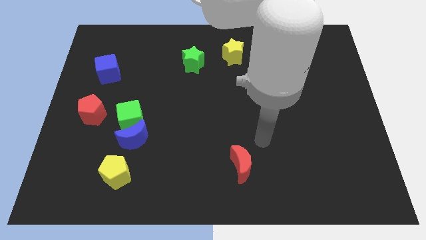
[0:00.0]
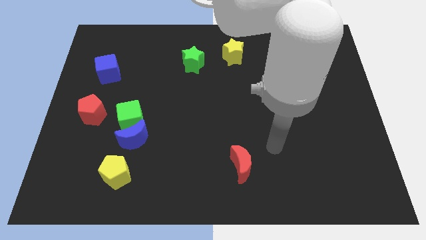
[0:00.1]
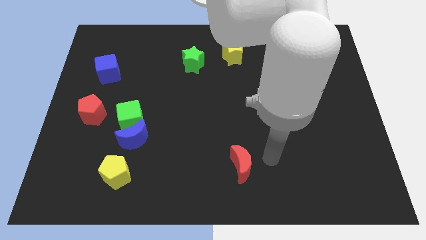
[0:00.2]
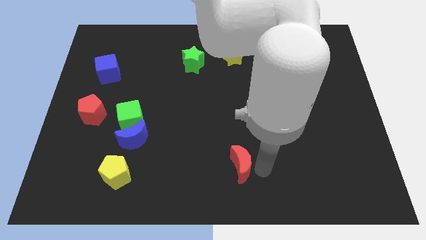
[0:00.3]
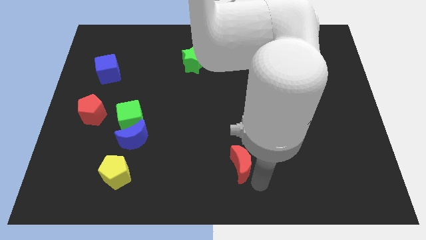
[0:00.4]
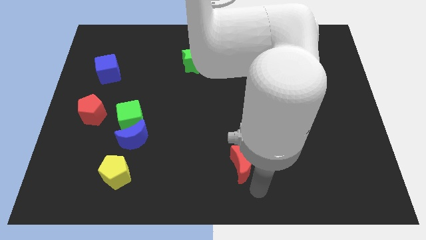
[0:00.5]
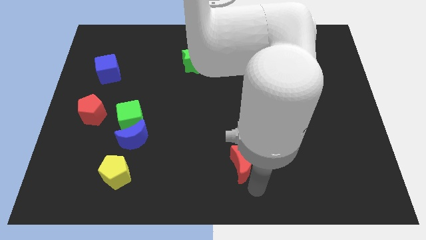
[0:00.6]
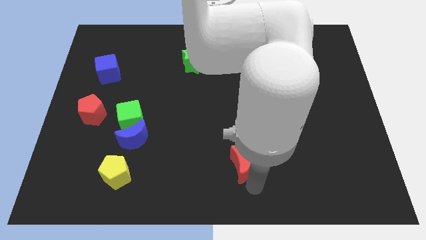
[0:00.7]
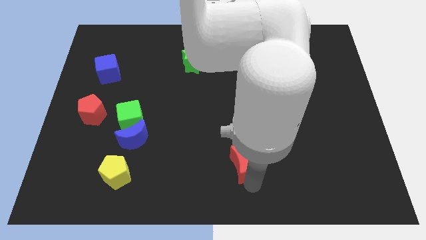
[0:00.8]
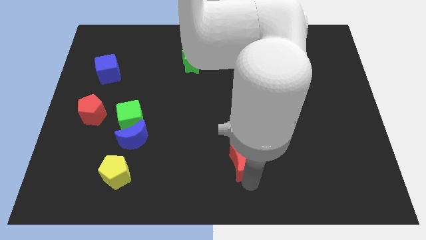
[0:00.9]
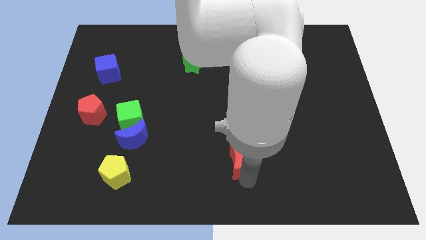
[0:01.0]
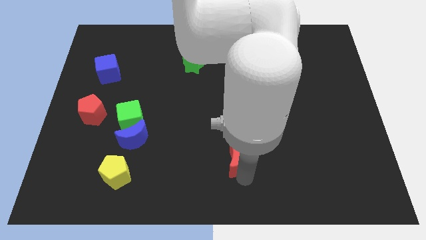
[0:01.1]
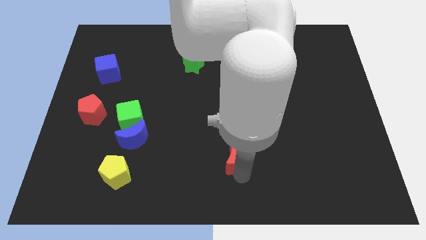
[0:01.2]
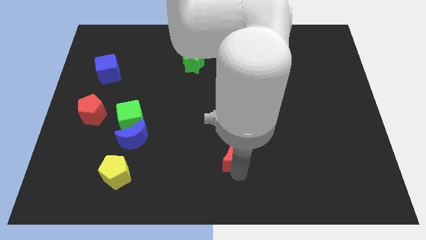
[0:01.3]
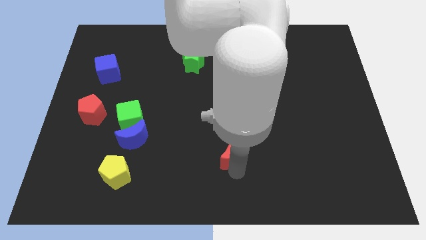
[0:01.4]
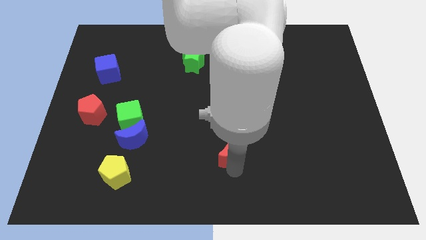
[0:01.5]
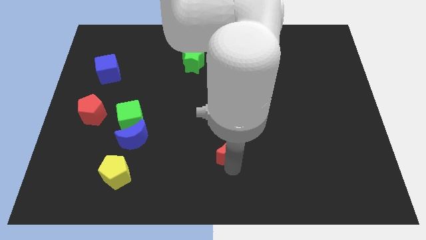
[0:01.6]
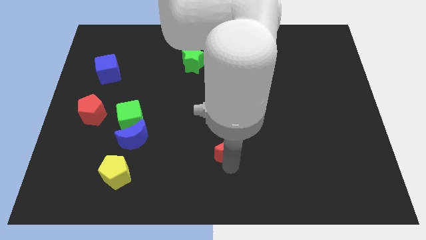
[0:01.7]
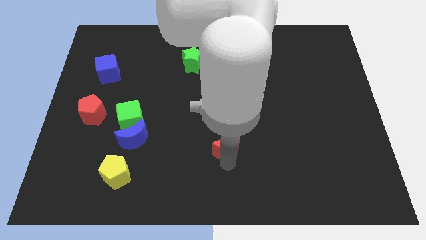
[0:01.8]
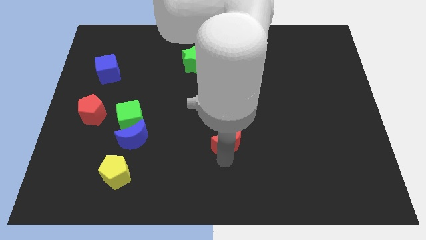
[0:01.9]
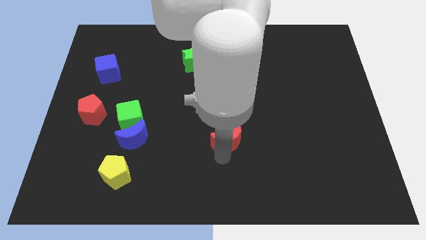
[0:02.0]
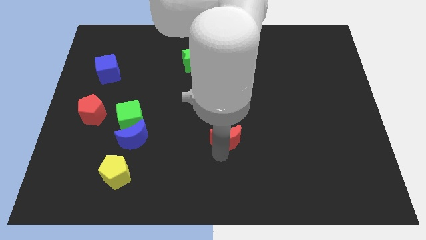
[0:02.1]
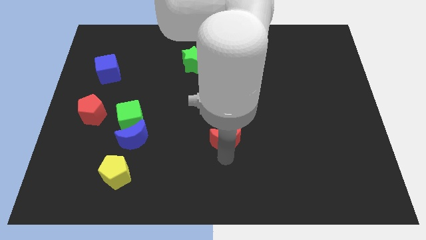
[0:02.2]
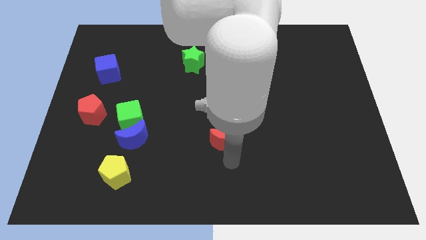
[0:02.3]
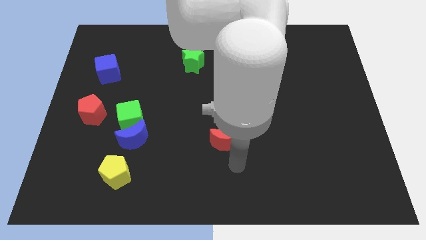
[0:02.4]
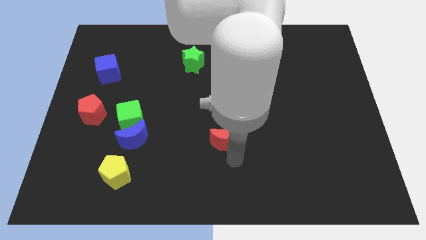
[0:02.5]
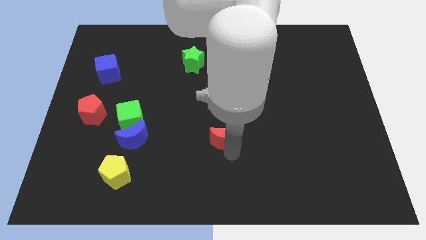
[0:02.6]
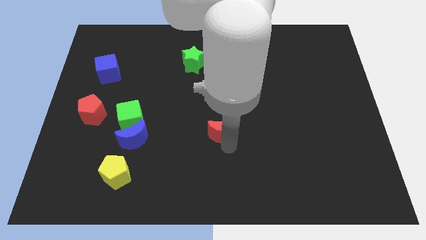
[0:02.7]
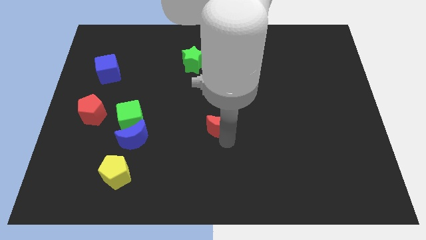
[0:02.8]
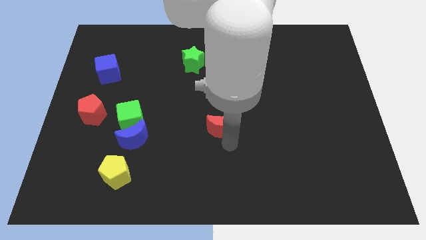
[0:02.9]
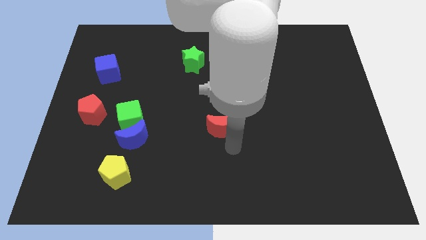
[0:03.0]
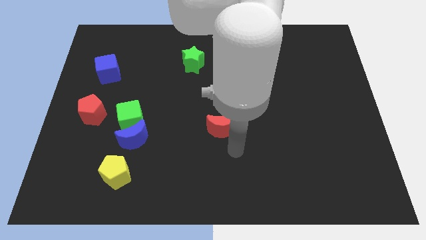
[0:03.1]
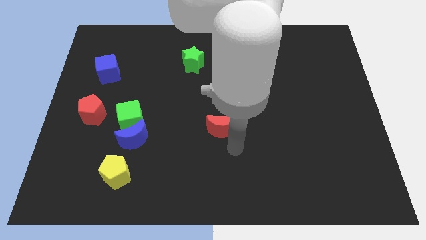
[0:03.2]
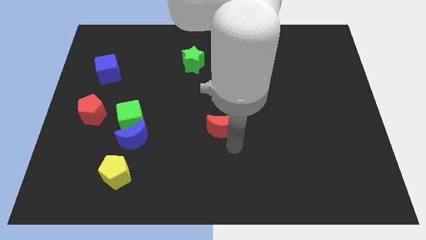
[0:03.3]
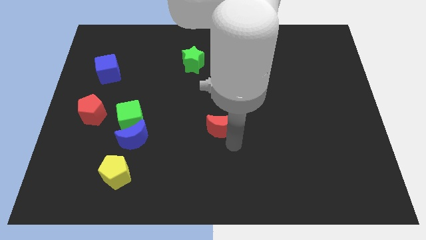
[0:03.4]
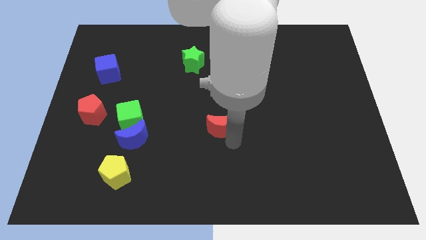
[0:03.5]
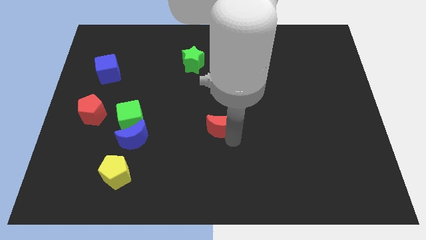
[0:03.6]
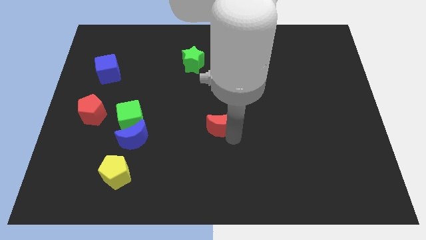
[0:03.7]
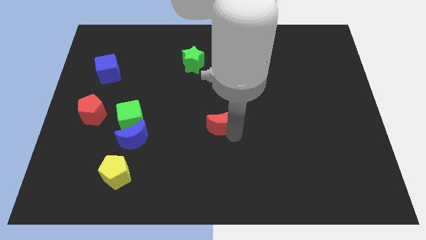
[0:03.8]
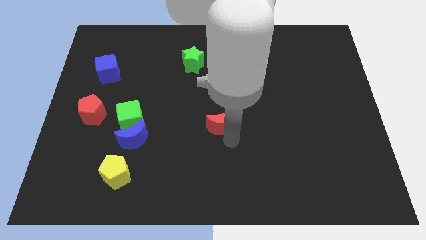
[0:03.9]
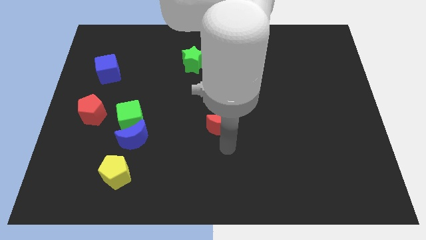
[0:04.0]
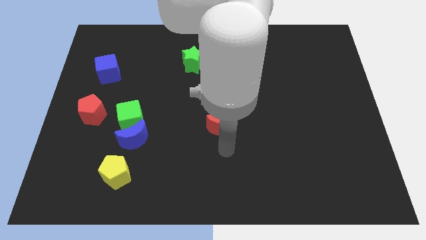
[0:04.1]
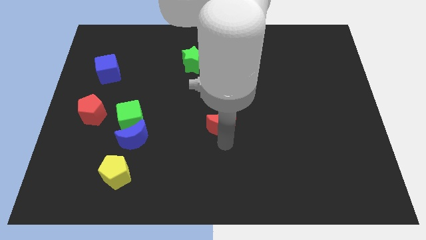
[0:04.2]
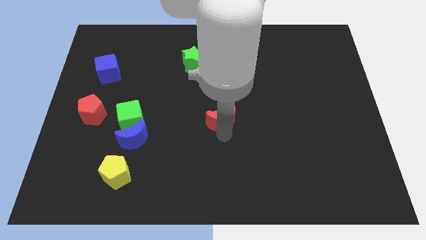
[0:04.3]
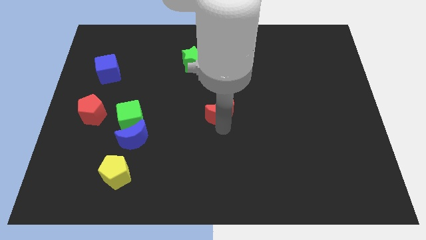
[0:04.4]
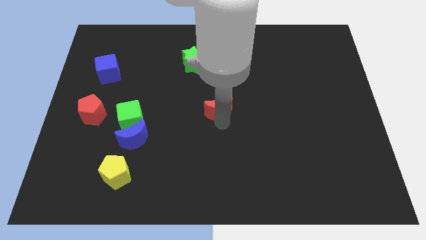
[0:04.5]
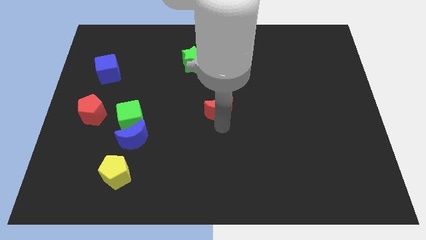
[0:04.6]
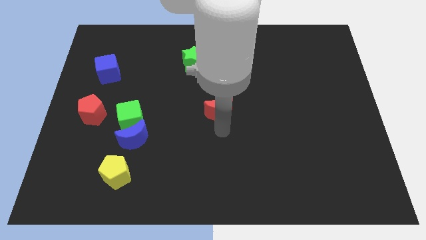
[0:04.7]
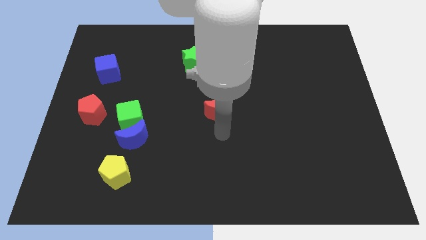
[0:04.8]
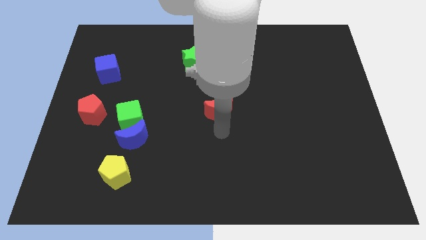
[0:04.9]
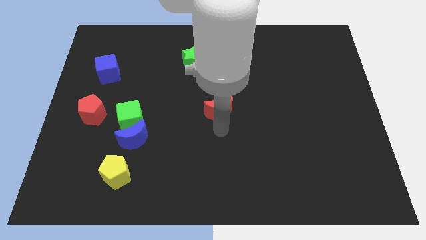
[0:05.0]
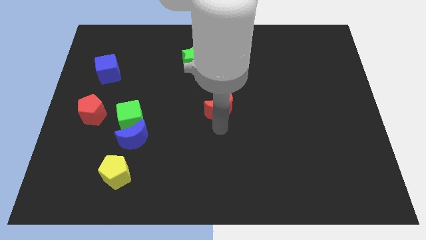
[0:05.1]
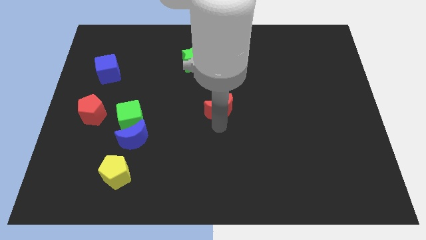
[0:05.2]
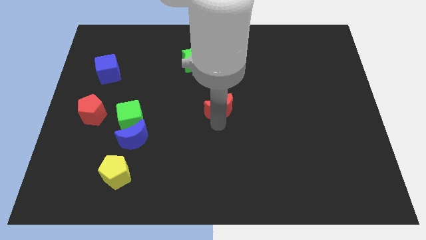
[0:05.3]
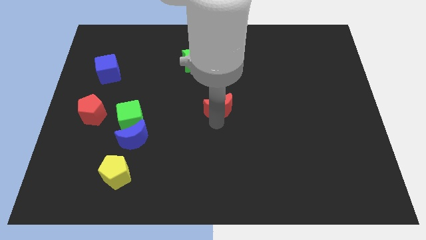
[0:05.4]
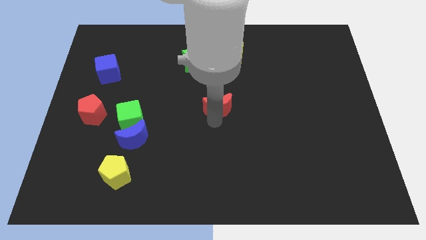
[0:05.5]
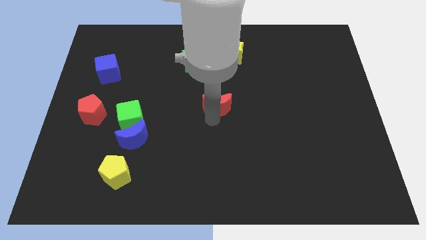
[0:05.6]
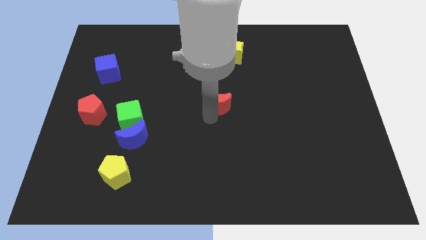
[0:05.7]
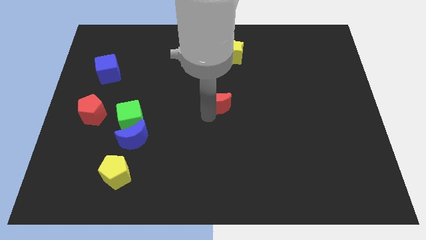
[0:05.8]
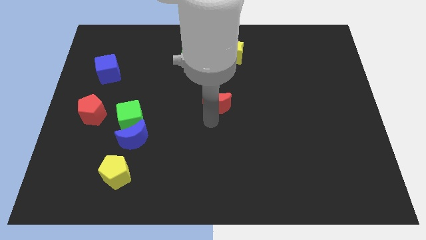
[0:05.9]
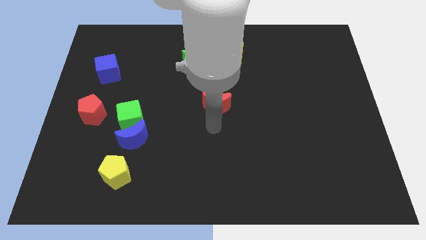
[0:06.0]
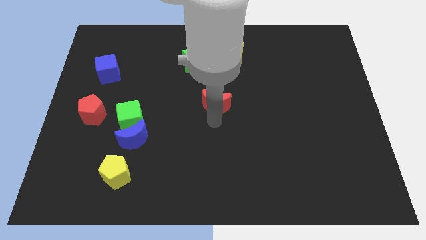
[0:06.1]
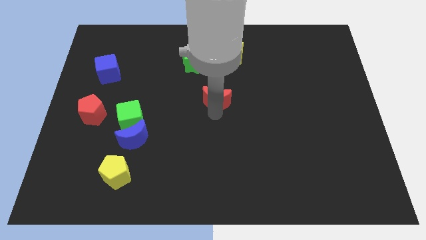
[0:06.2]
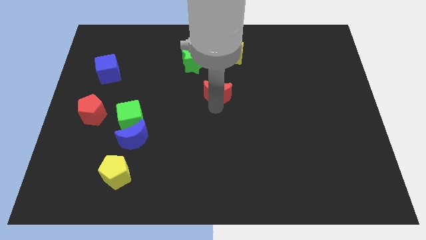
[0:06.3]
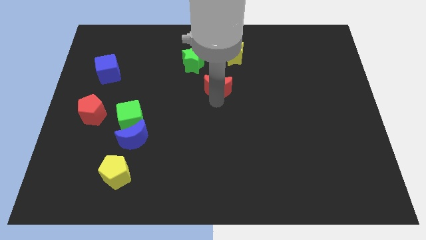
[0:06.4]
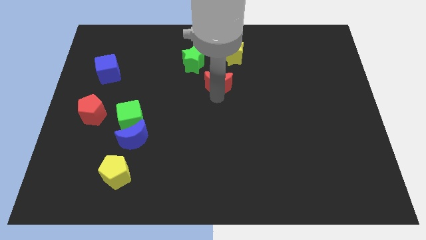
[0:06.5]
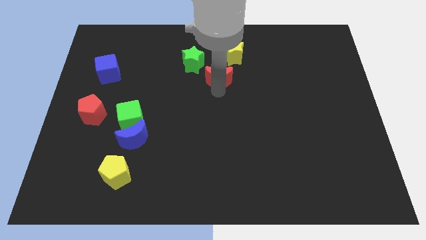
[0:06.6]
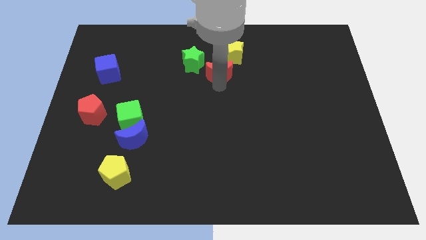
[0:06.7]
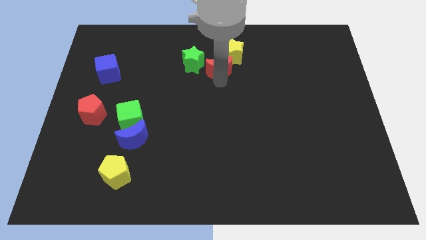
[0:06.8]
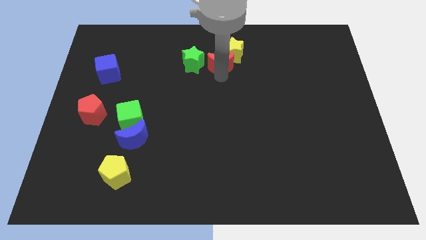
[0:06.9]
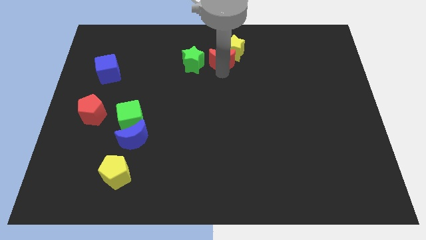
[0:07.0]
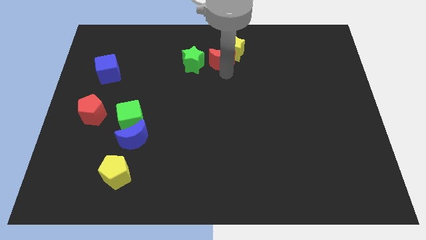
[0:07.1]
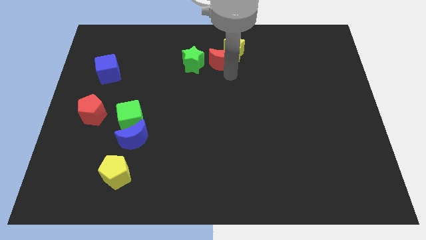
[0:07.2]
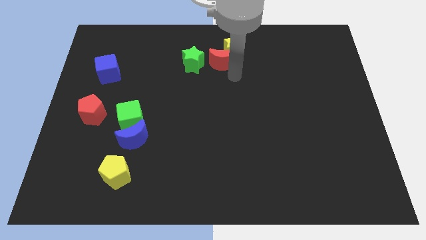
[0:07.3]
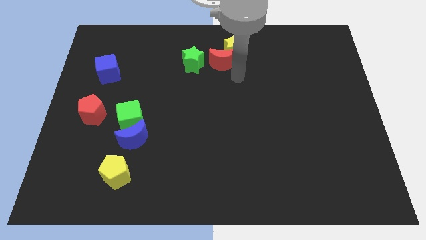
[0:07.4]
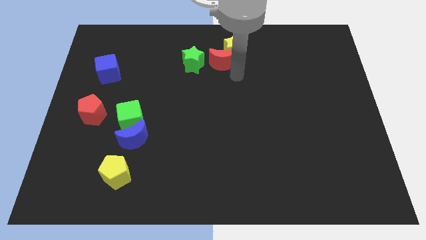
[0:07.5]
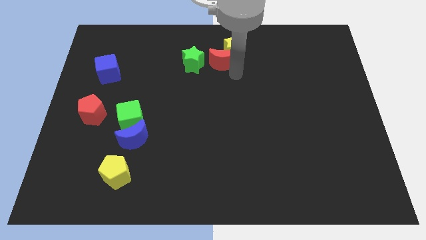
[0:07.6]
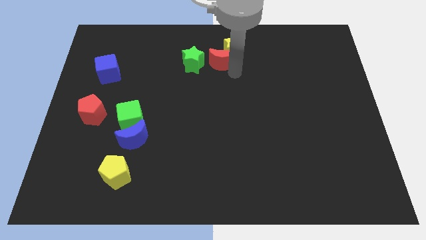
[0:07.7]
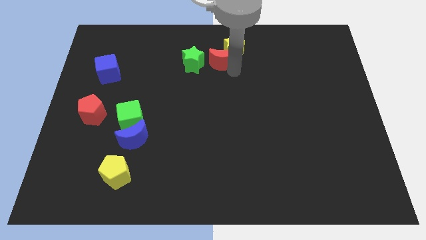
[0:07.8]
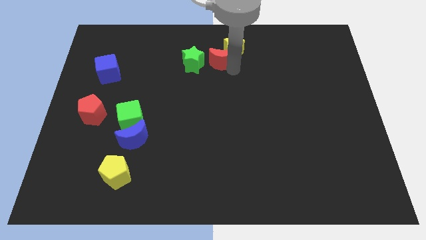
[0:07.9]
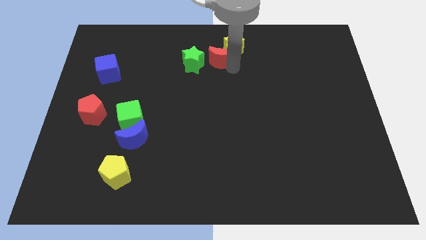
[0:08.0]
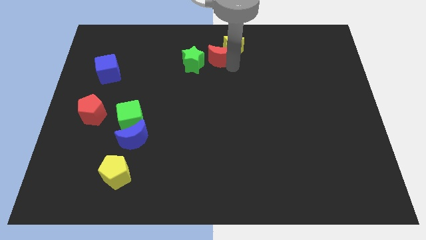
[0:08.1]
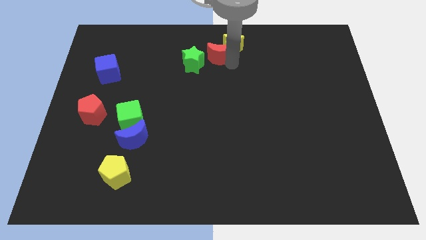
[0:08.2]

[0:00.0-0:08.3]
slide the red moon to the towards your base
